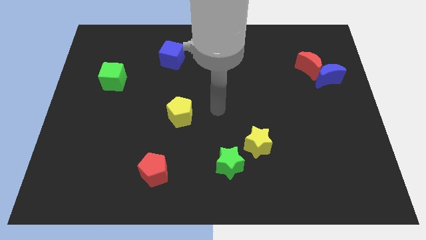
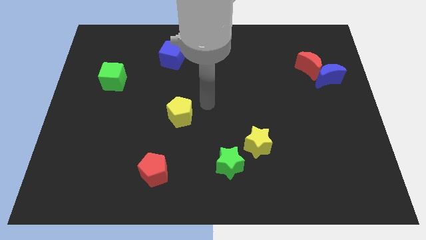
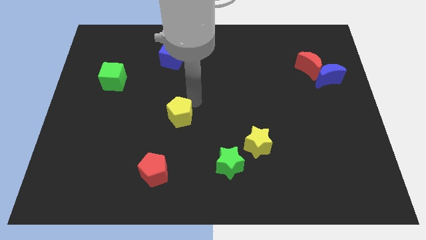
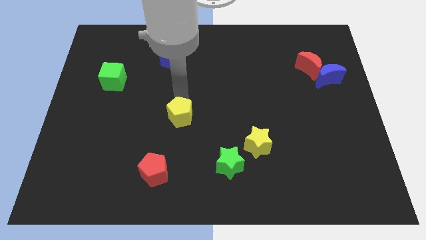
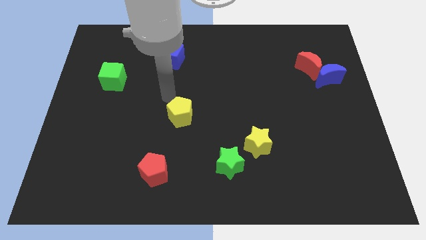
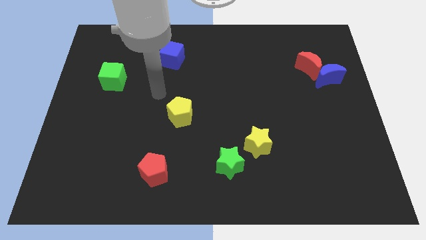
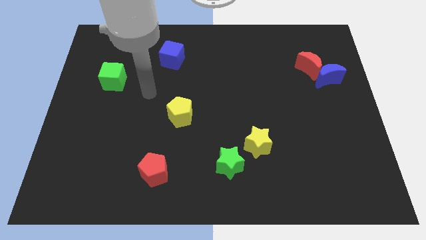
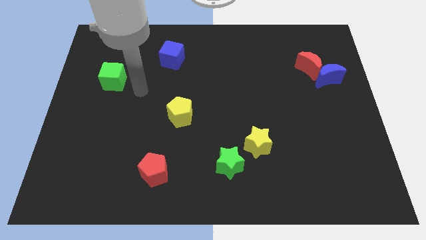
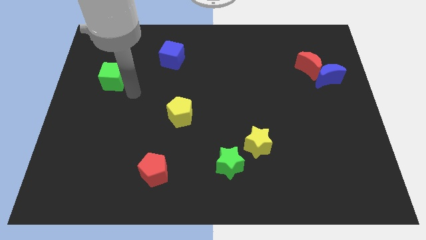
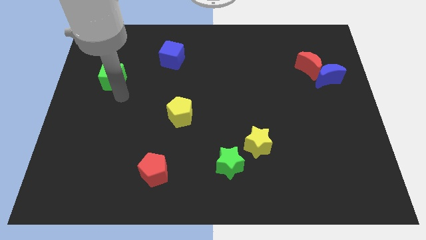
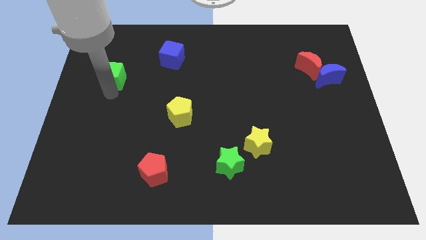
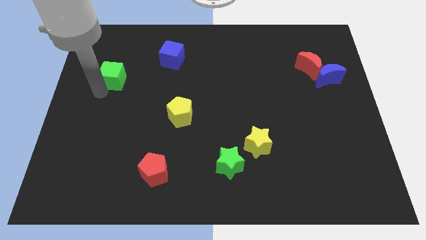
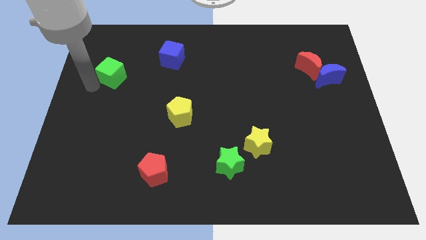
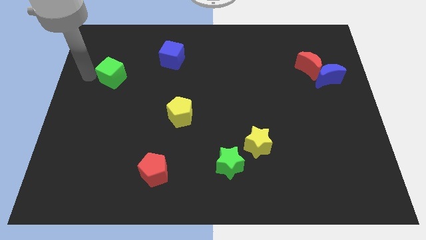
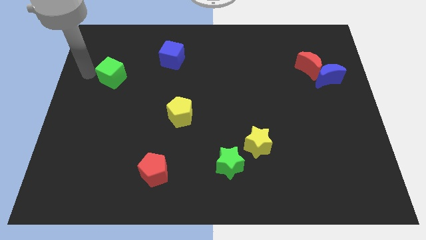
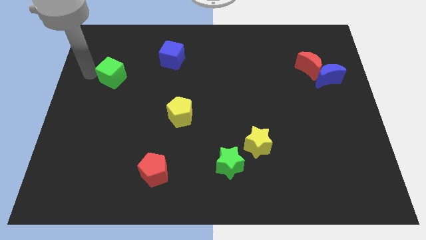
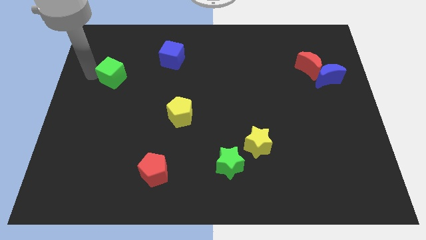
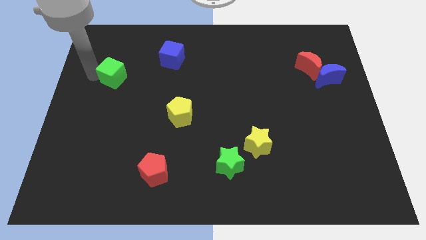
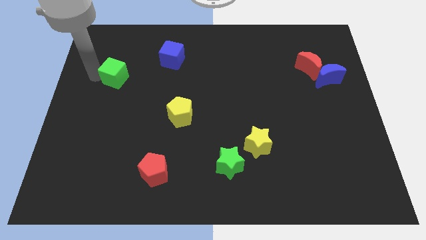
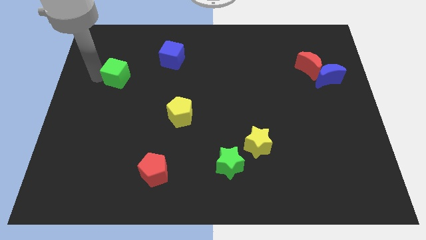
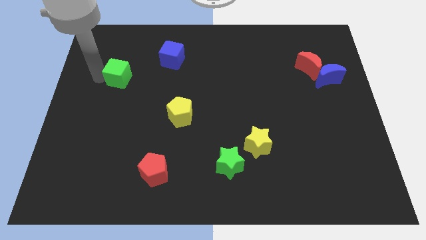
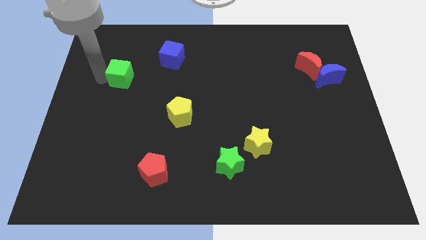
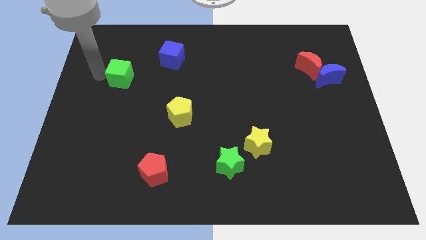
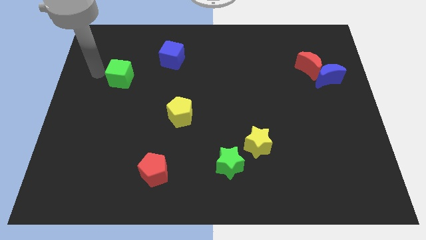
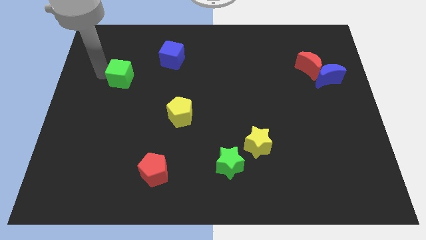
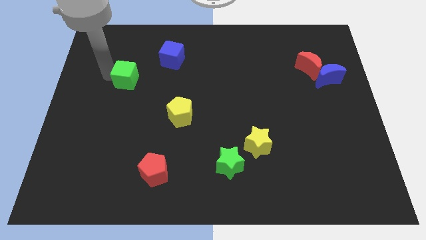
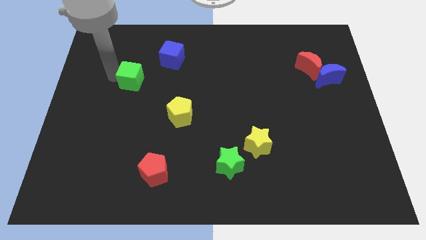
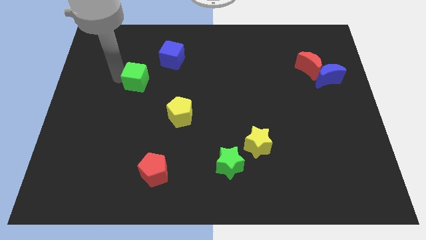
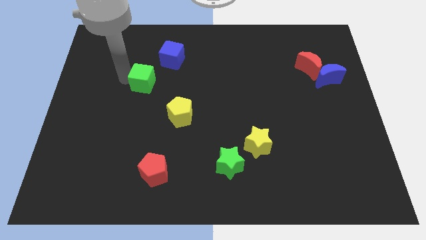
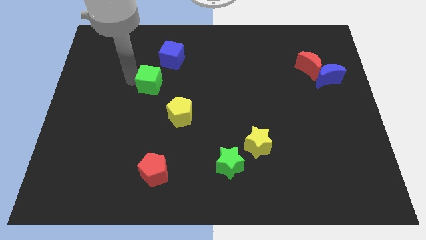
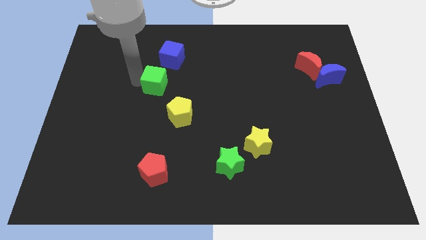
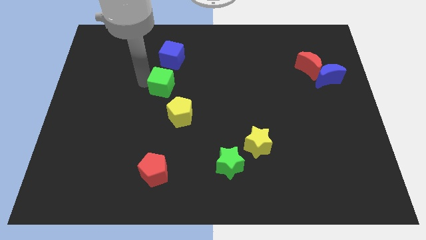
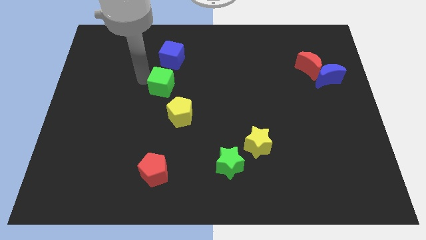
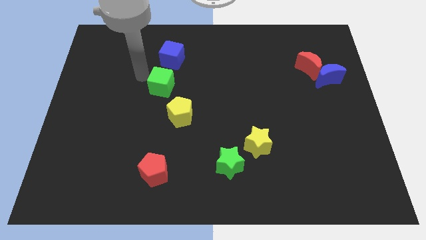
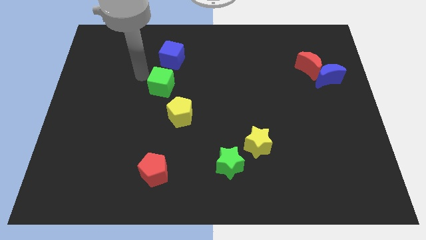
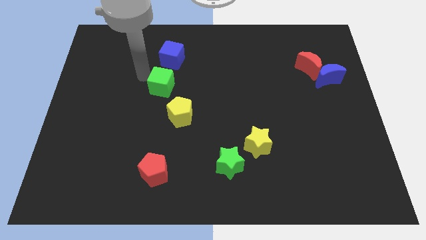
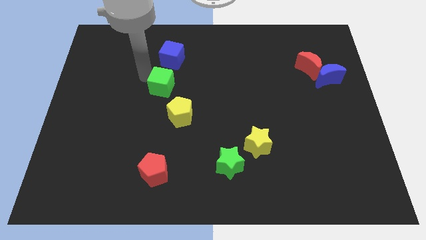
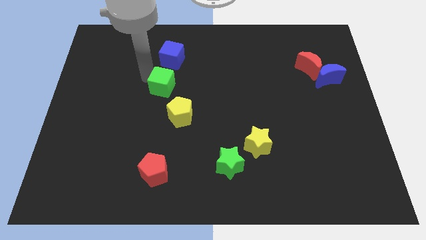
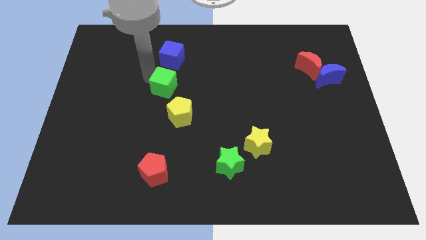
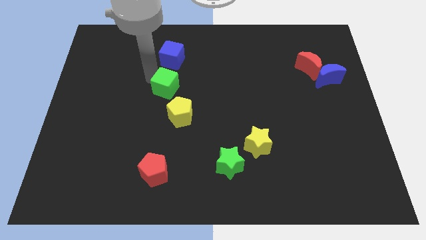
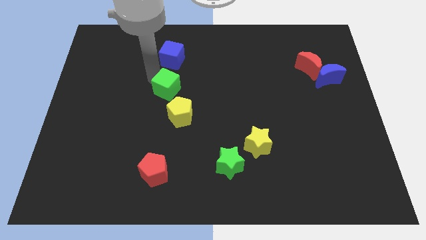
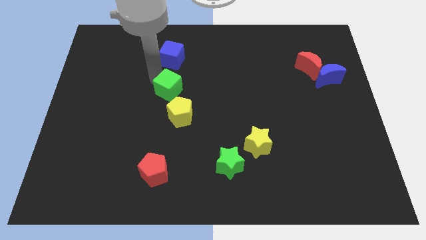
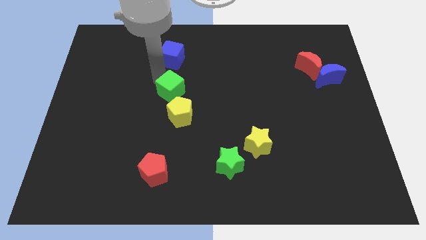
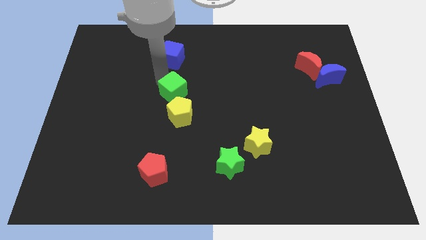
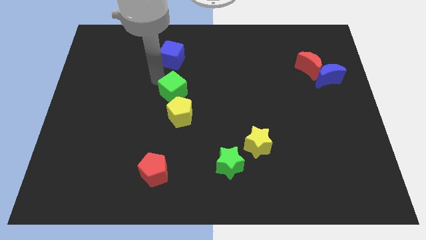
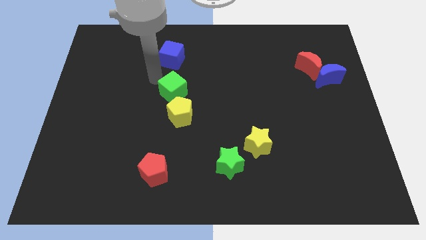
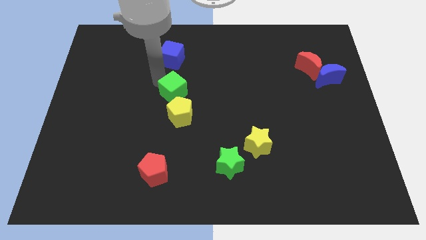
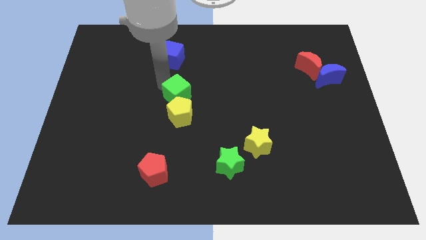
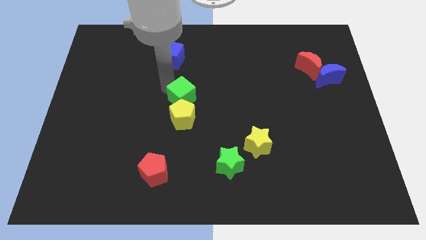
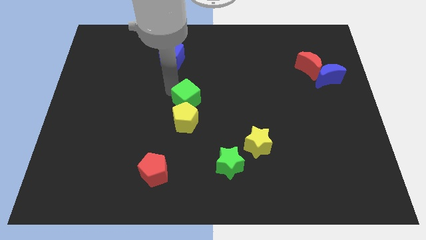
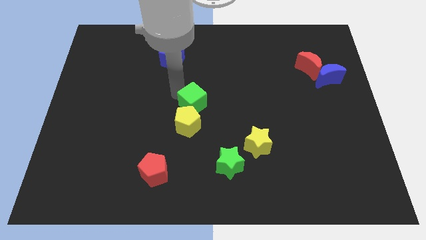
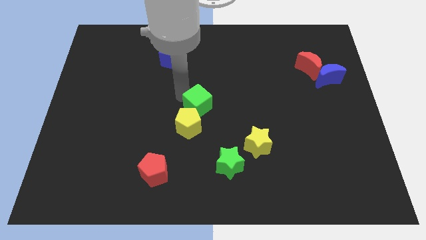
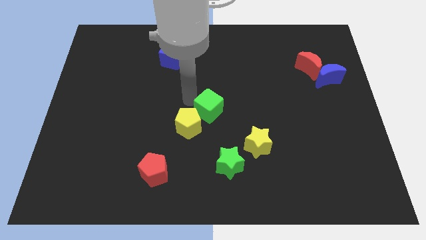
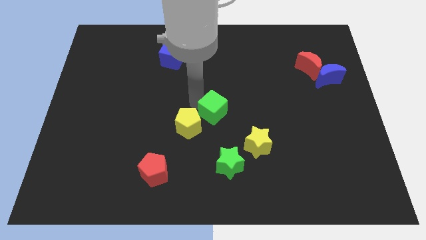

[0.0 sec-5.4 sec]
push the green cube above the green star

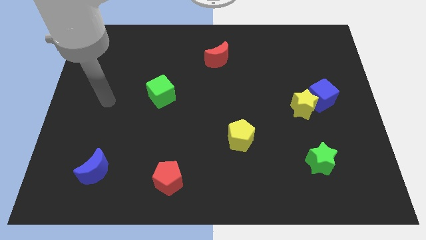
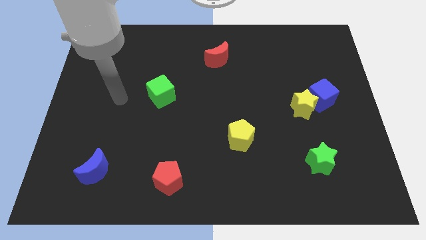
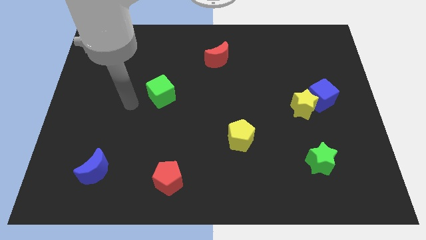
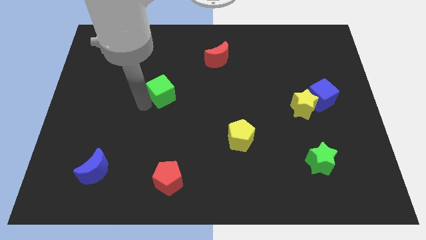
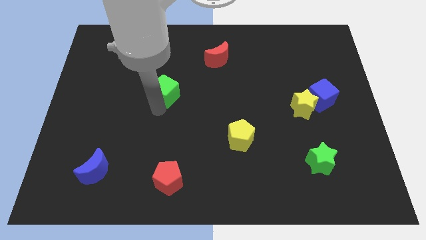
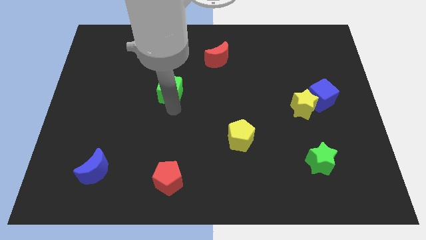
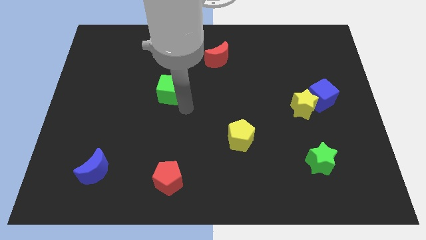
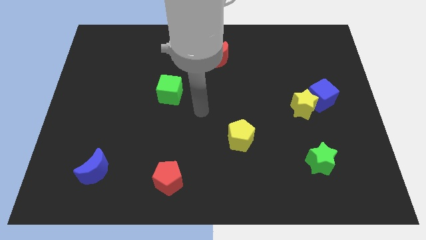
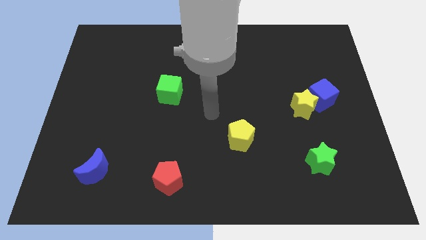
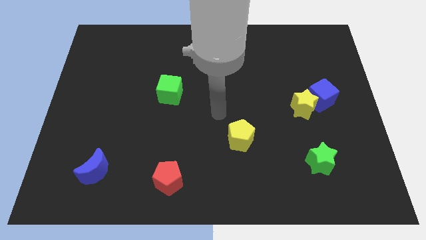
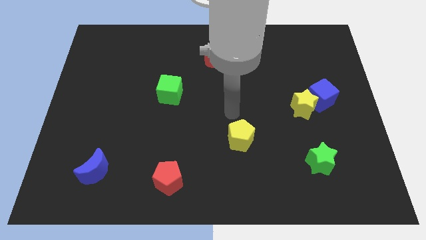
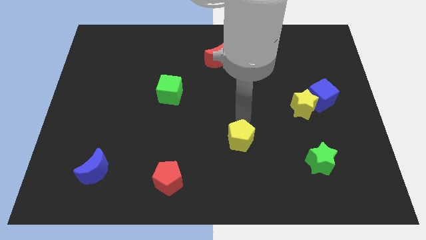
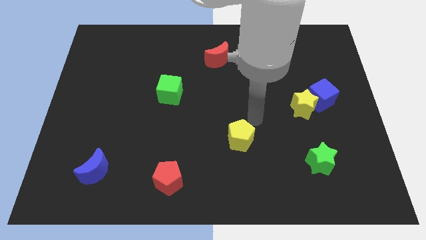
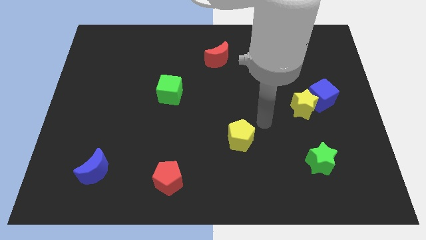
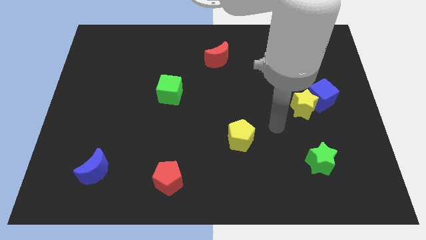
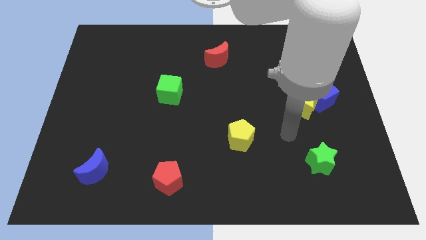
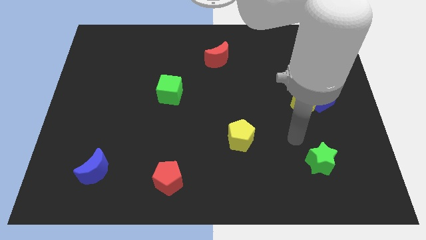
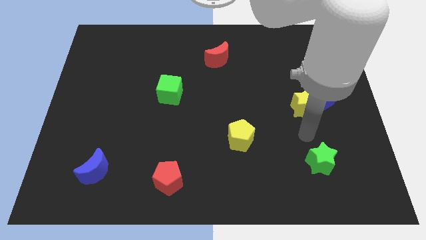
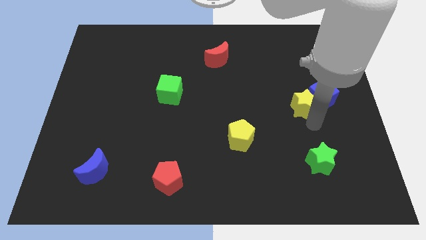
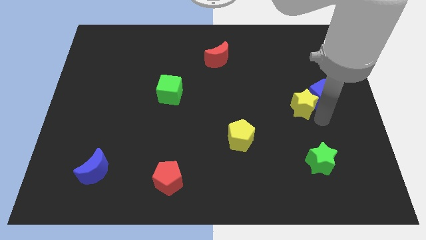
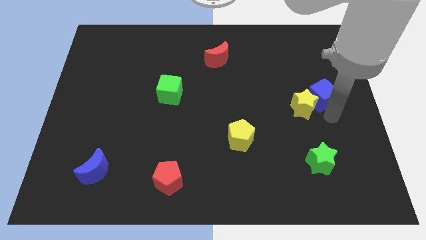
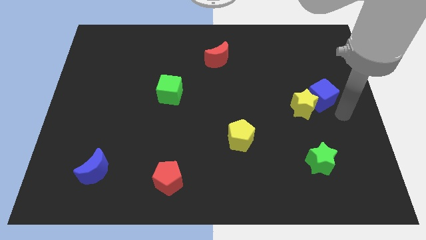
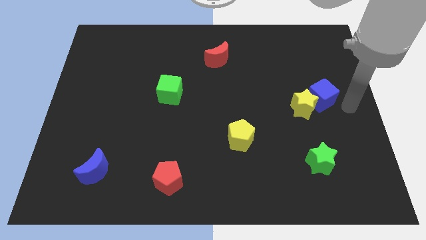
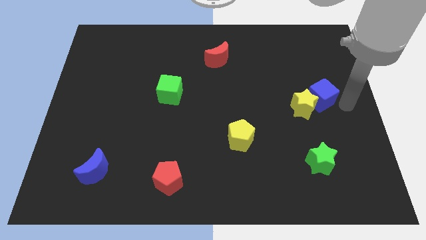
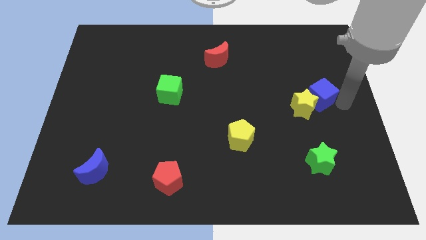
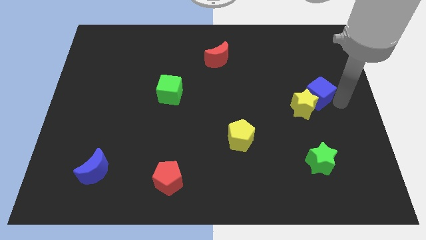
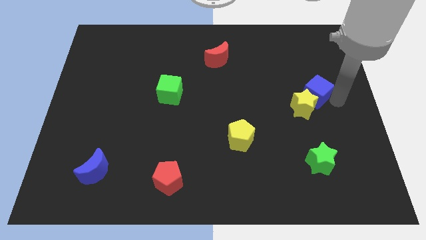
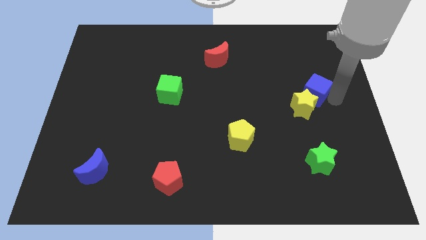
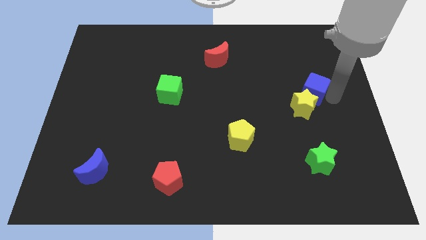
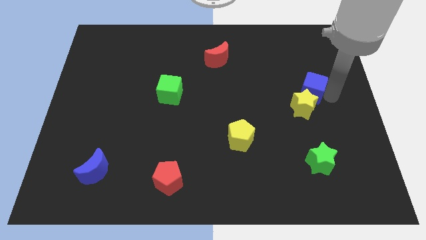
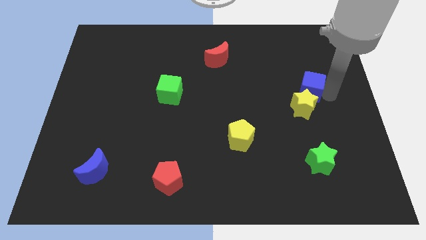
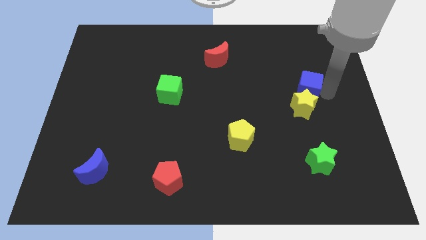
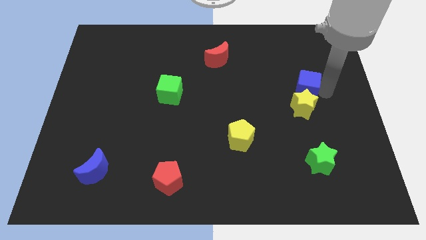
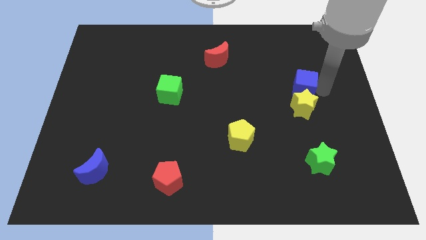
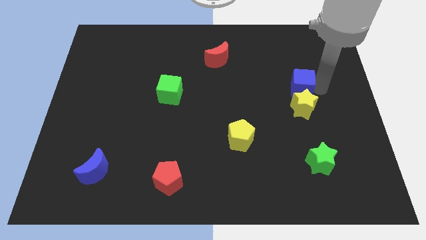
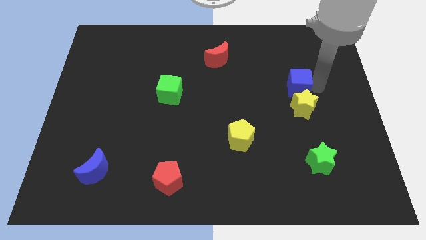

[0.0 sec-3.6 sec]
move the blue cube to the top left of the yellow star
